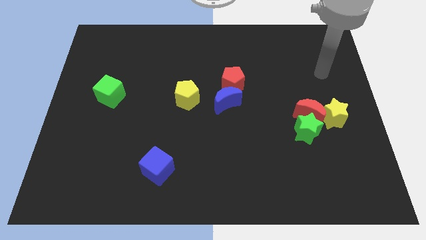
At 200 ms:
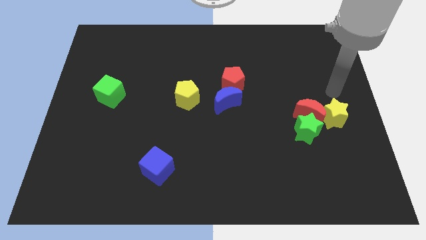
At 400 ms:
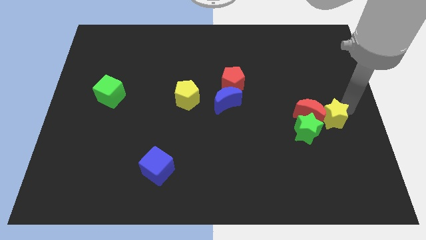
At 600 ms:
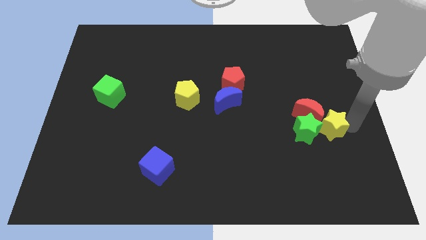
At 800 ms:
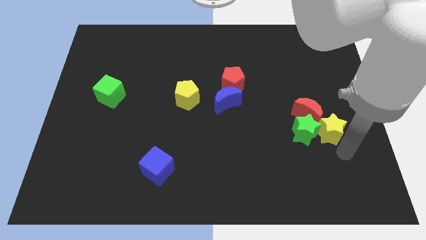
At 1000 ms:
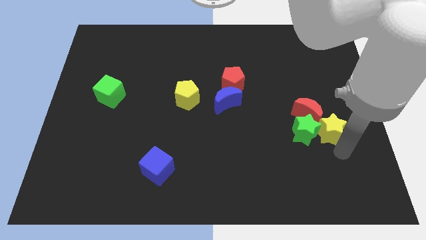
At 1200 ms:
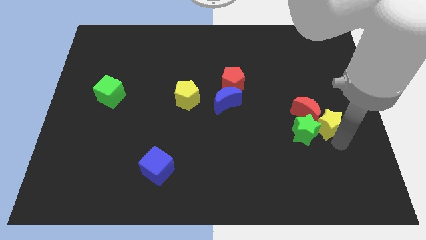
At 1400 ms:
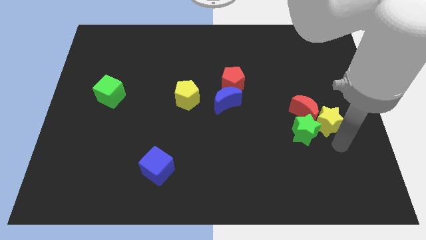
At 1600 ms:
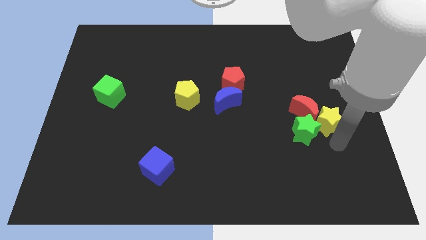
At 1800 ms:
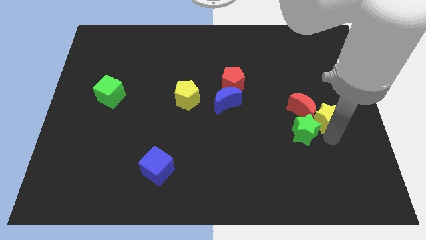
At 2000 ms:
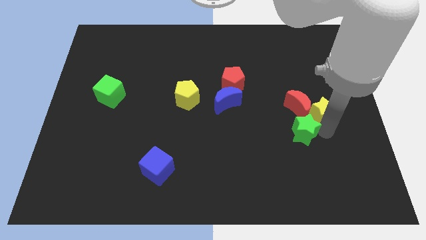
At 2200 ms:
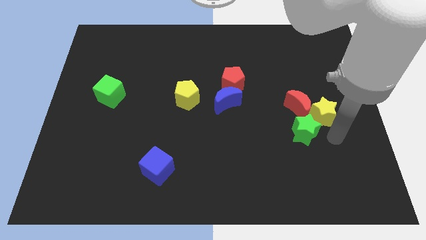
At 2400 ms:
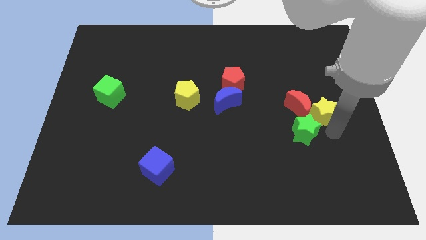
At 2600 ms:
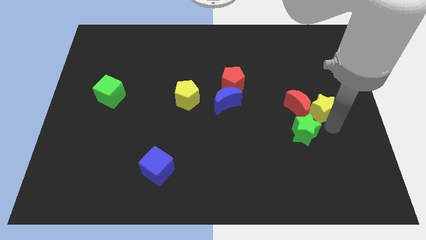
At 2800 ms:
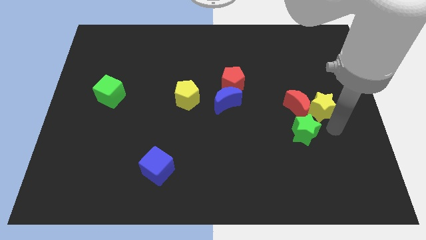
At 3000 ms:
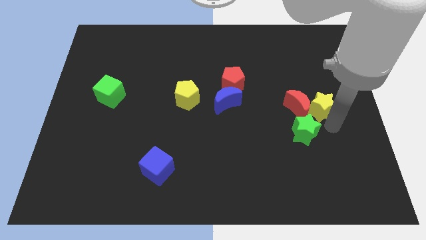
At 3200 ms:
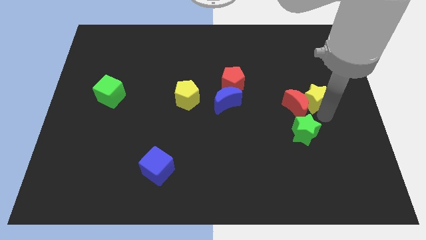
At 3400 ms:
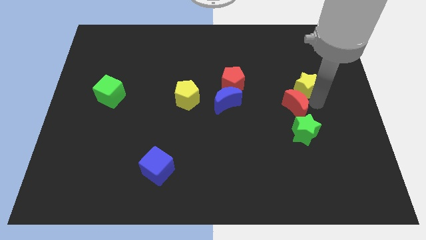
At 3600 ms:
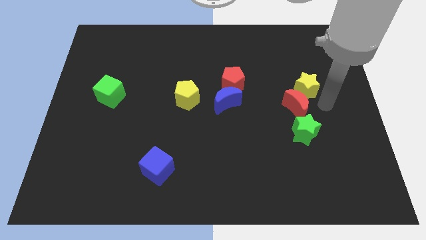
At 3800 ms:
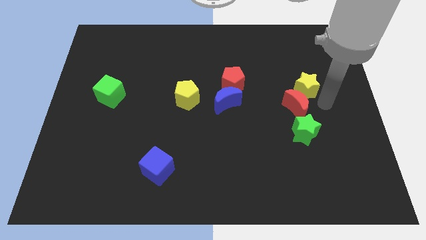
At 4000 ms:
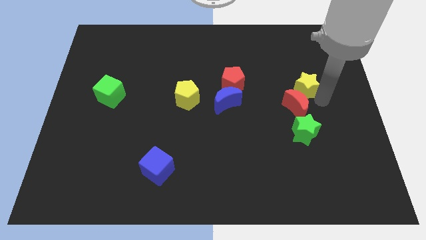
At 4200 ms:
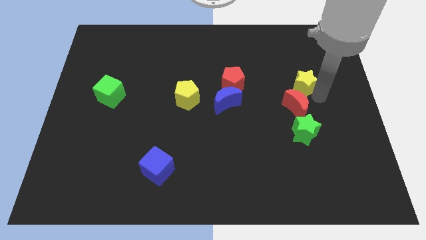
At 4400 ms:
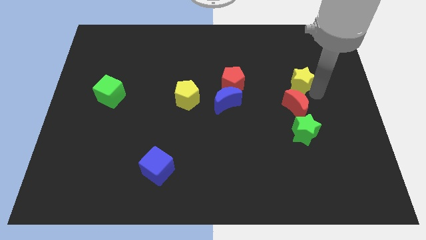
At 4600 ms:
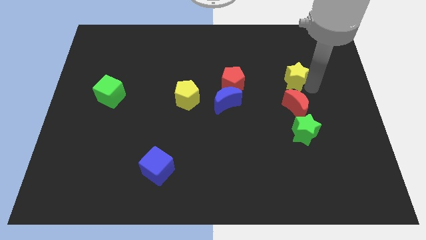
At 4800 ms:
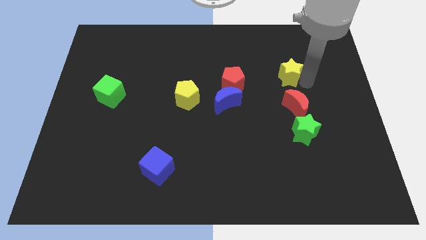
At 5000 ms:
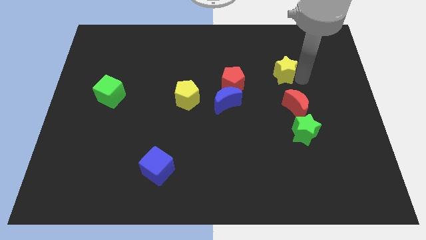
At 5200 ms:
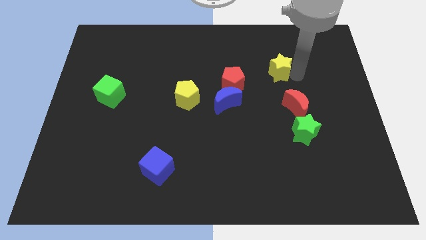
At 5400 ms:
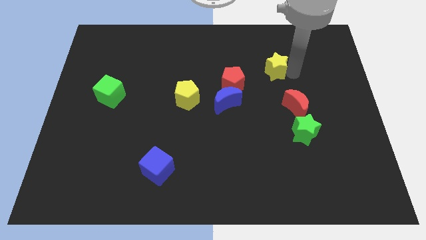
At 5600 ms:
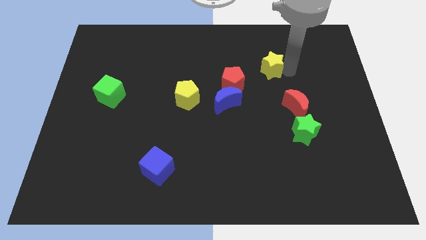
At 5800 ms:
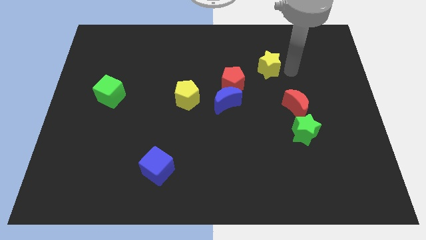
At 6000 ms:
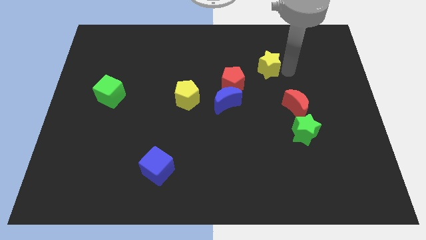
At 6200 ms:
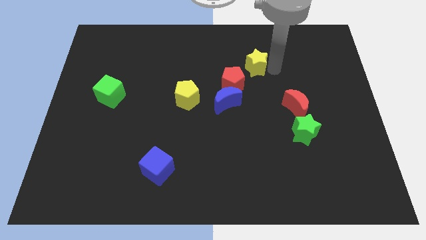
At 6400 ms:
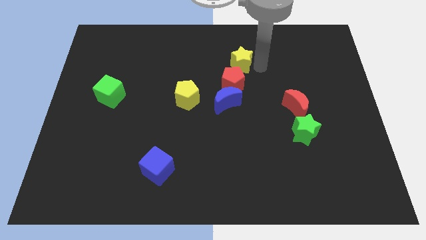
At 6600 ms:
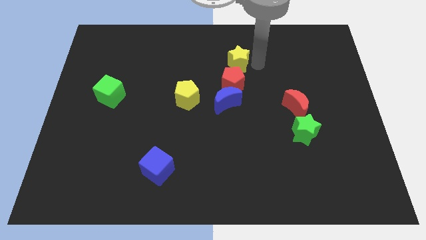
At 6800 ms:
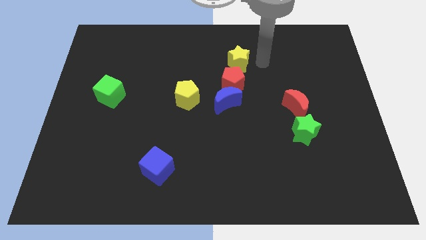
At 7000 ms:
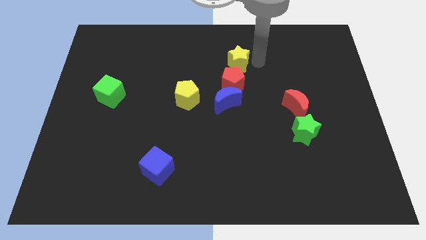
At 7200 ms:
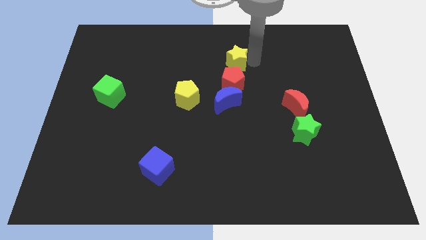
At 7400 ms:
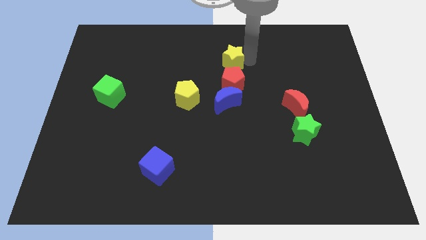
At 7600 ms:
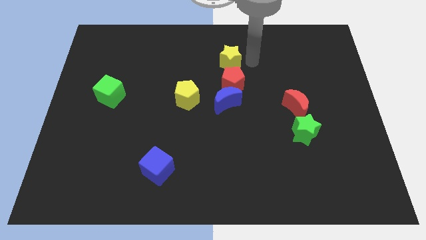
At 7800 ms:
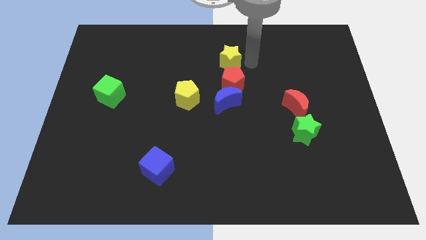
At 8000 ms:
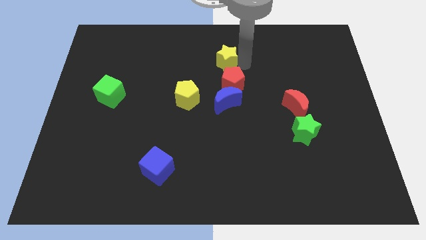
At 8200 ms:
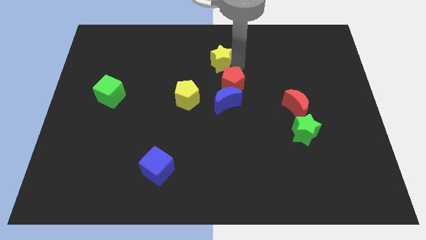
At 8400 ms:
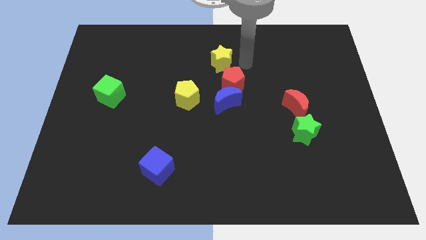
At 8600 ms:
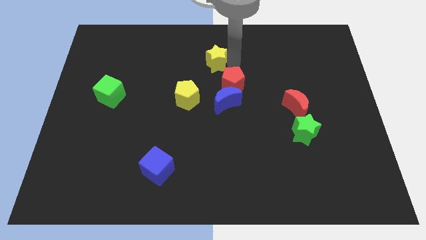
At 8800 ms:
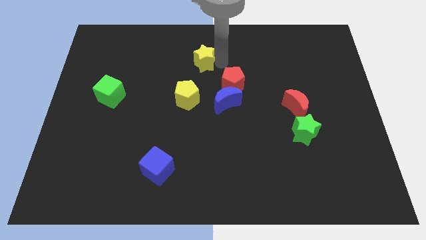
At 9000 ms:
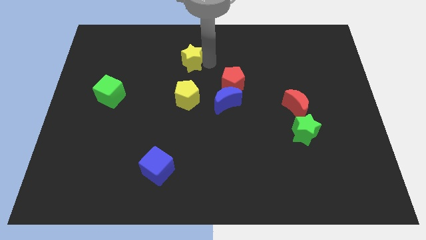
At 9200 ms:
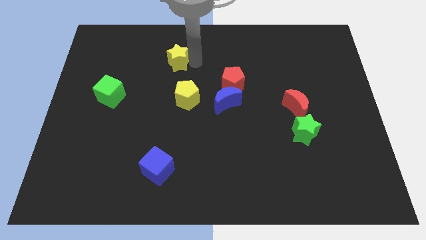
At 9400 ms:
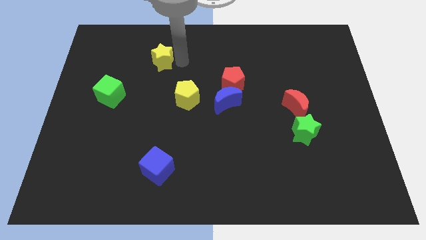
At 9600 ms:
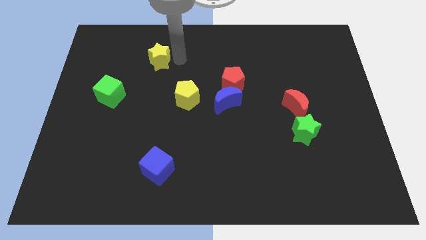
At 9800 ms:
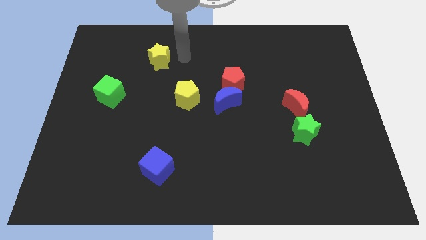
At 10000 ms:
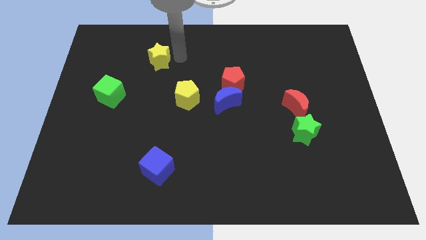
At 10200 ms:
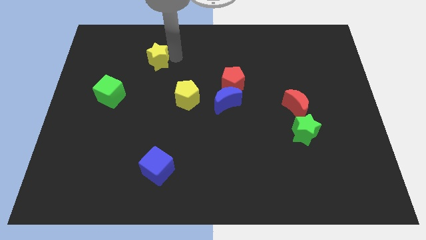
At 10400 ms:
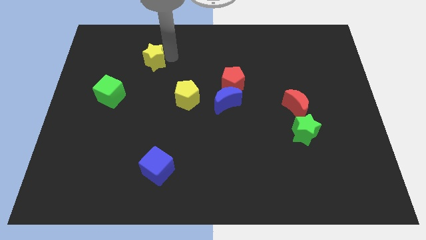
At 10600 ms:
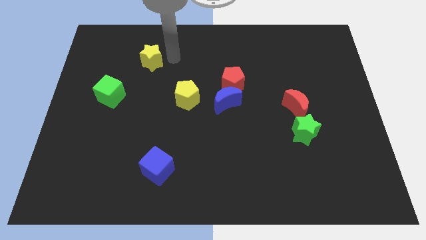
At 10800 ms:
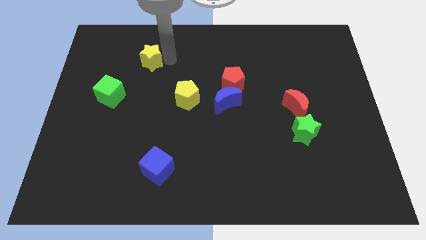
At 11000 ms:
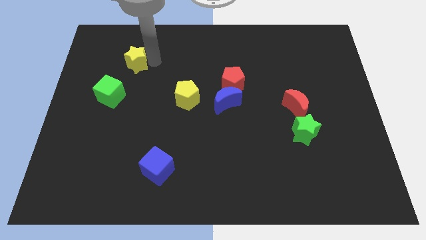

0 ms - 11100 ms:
push the yellow star to the top of the green cube

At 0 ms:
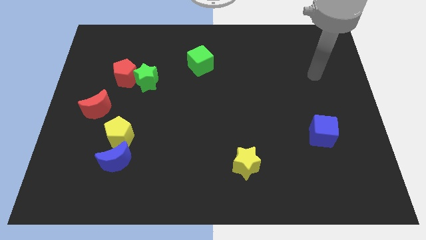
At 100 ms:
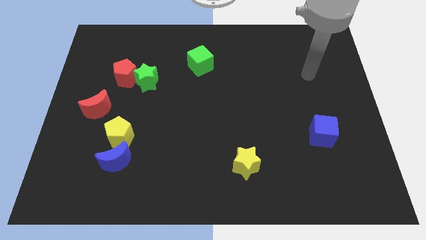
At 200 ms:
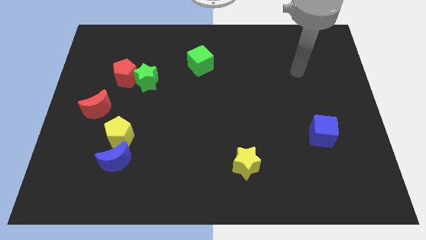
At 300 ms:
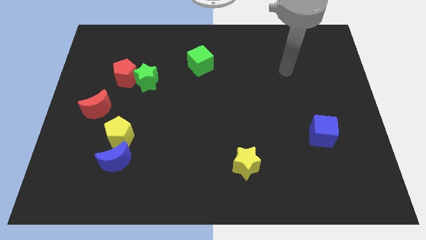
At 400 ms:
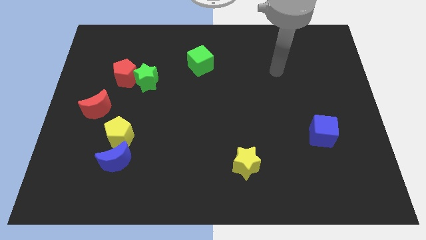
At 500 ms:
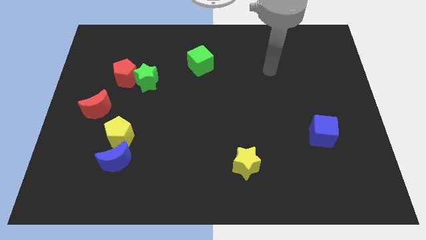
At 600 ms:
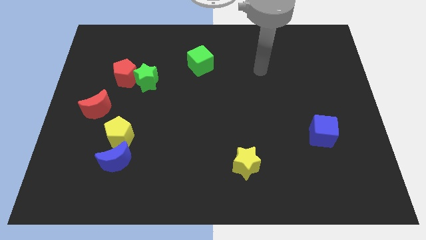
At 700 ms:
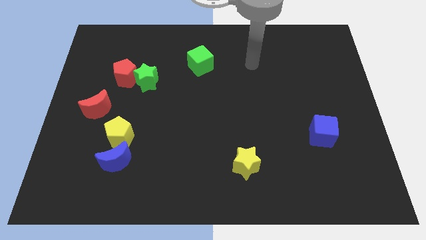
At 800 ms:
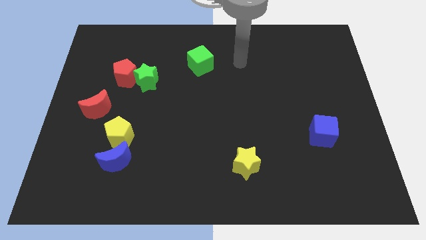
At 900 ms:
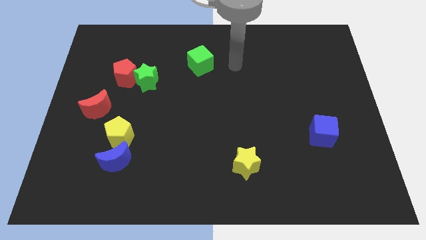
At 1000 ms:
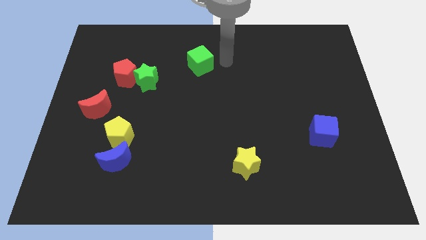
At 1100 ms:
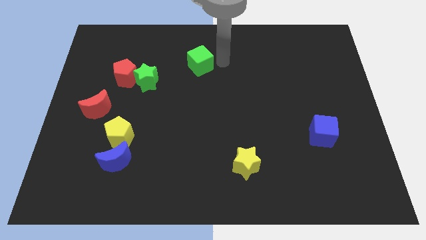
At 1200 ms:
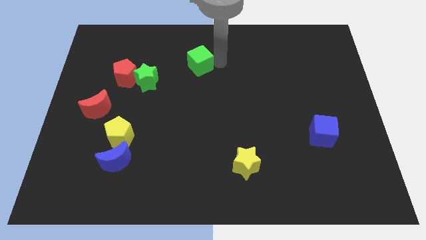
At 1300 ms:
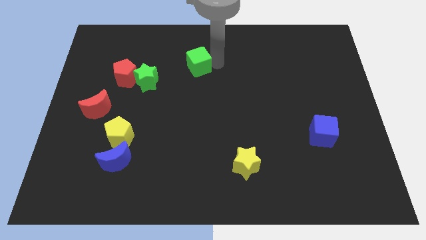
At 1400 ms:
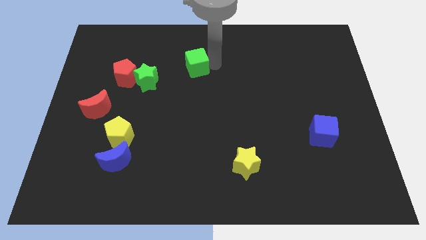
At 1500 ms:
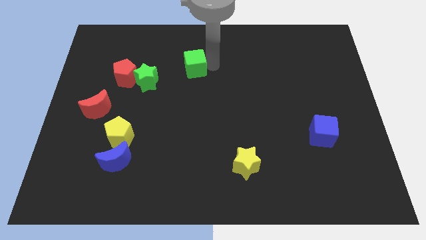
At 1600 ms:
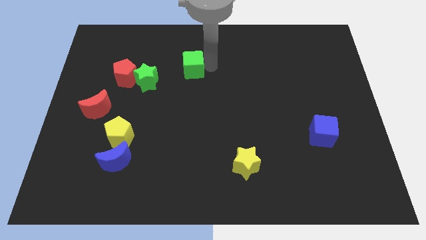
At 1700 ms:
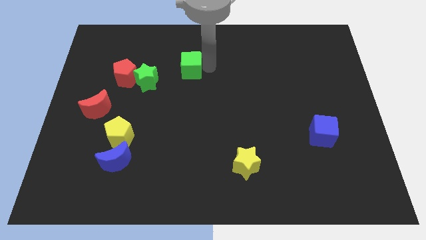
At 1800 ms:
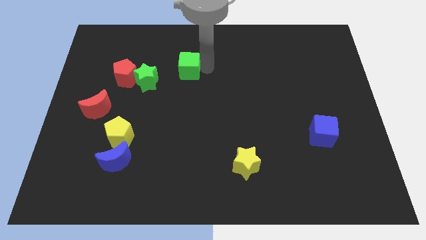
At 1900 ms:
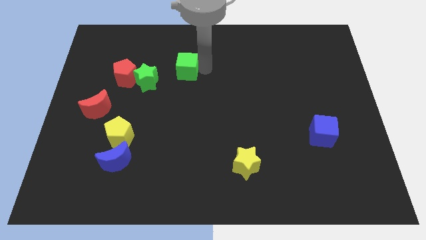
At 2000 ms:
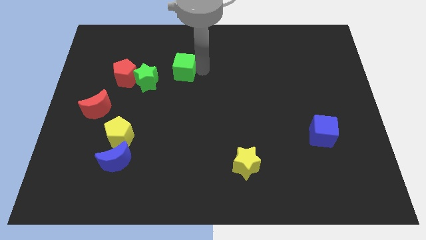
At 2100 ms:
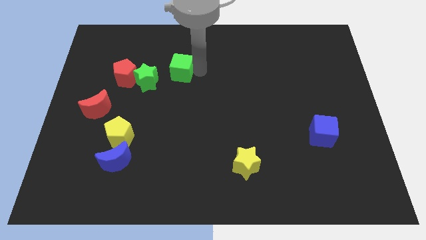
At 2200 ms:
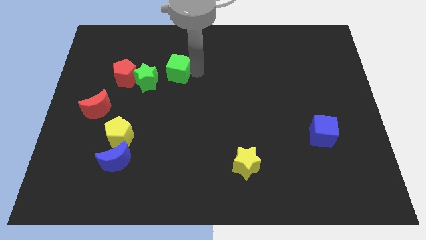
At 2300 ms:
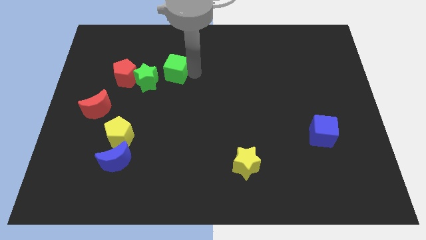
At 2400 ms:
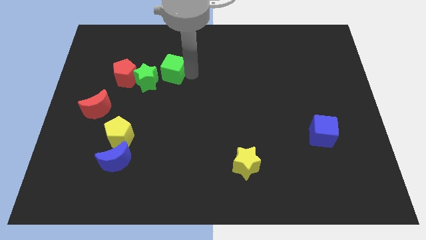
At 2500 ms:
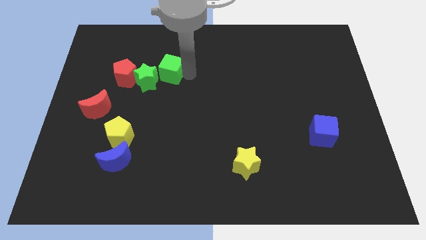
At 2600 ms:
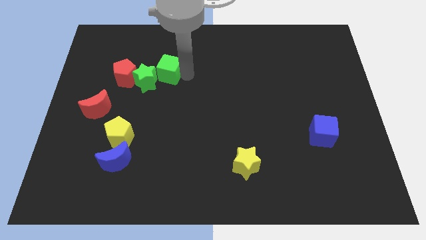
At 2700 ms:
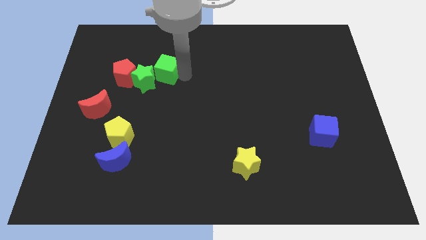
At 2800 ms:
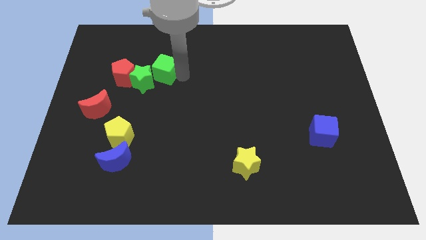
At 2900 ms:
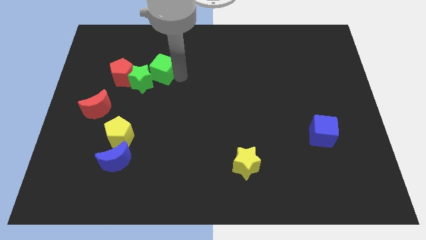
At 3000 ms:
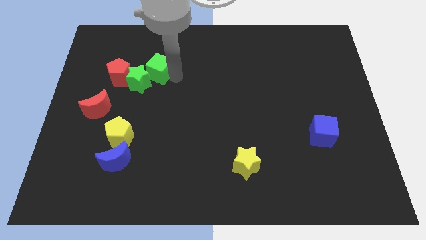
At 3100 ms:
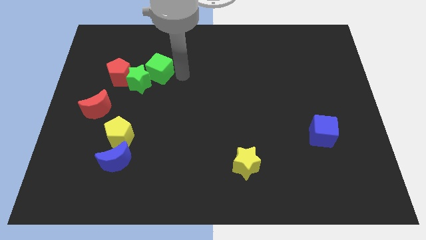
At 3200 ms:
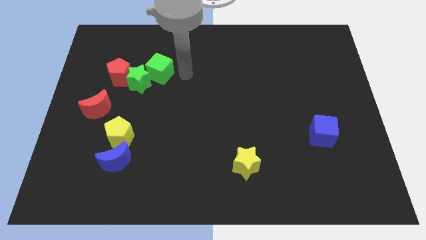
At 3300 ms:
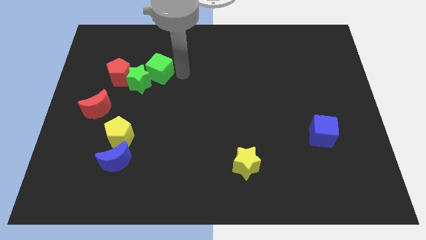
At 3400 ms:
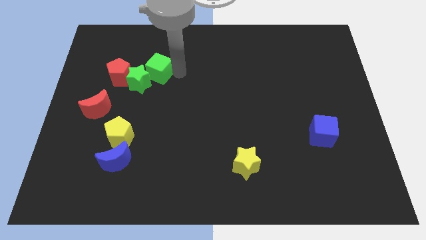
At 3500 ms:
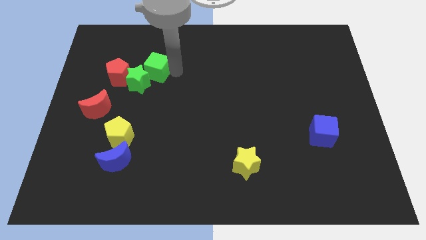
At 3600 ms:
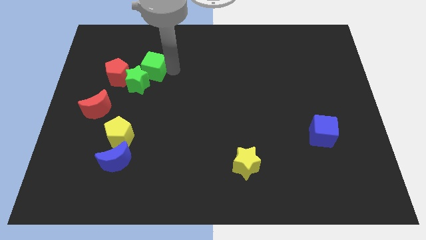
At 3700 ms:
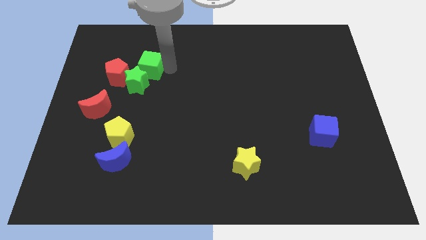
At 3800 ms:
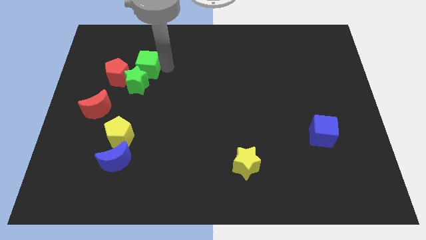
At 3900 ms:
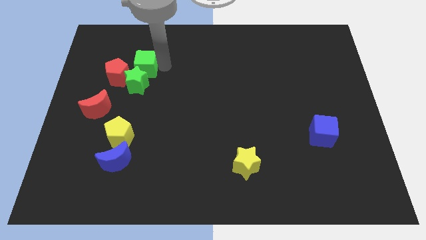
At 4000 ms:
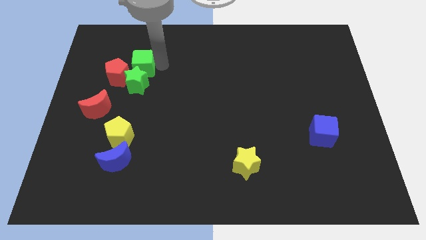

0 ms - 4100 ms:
put the green cube to the top left of the green star
